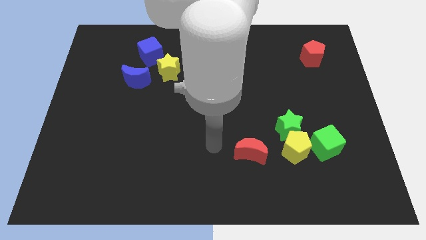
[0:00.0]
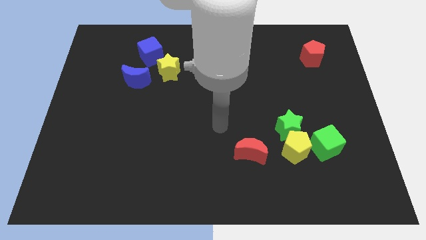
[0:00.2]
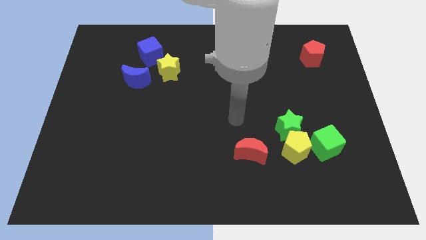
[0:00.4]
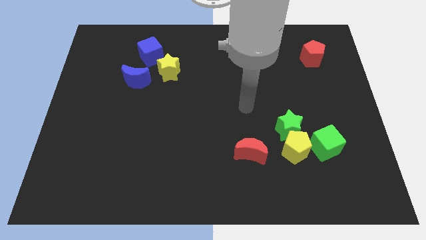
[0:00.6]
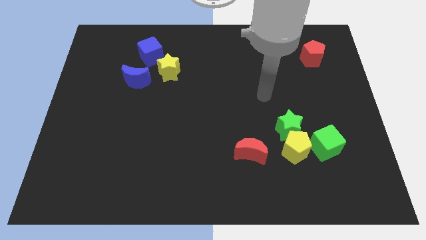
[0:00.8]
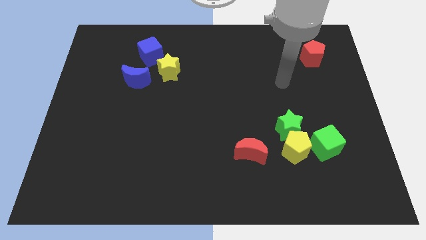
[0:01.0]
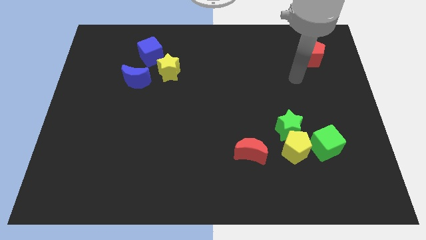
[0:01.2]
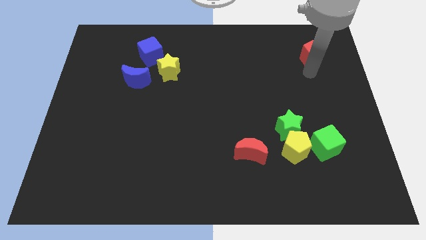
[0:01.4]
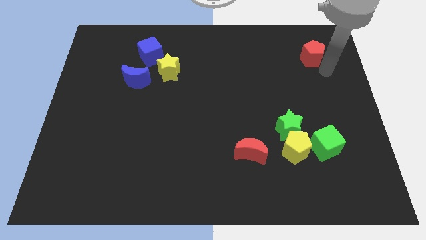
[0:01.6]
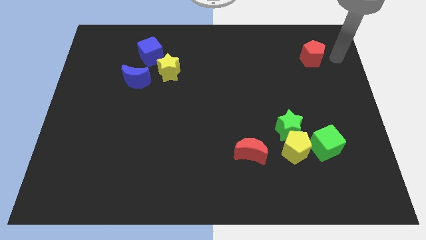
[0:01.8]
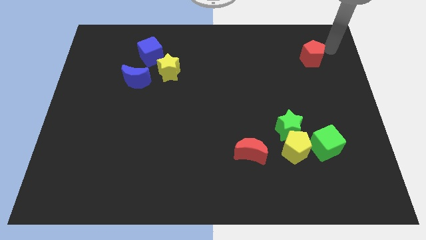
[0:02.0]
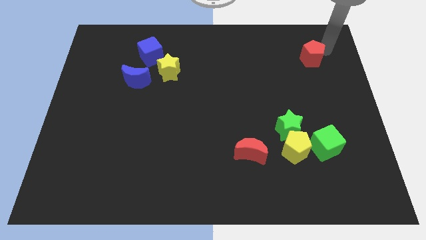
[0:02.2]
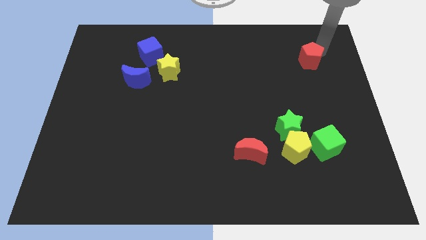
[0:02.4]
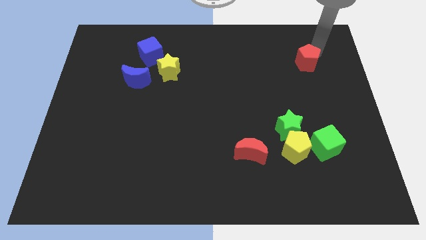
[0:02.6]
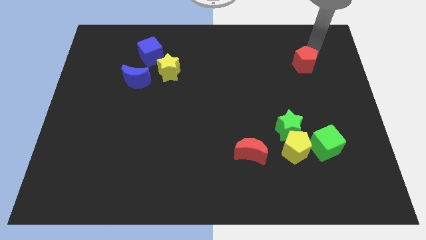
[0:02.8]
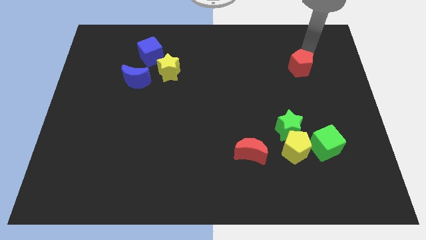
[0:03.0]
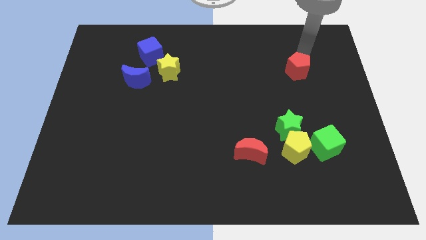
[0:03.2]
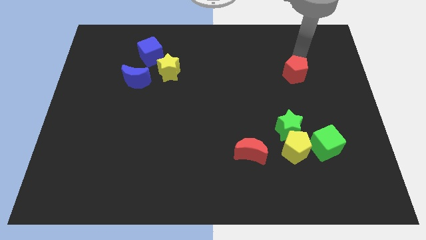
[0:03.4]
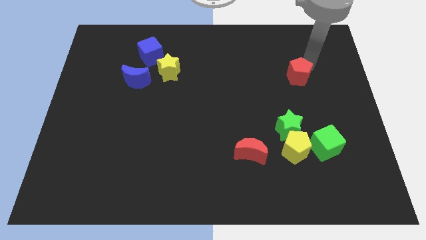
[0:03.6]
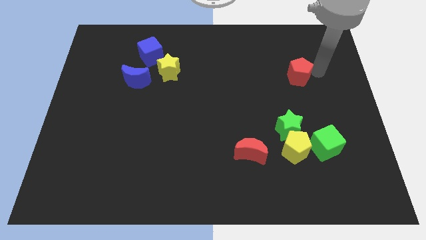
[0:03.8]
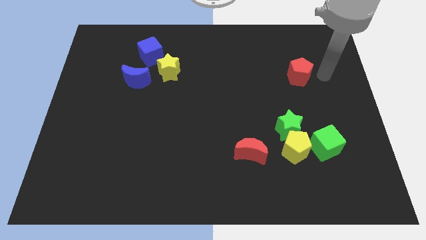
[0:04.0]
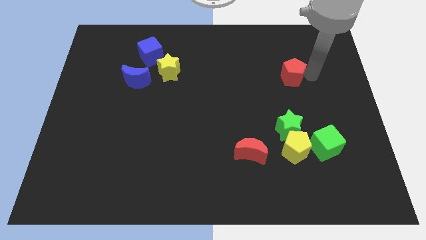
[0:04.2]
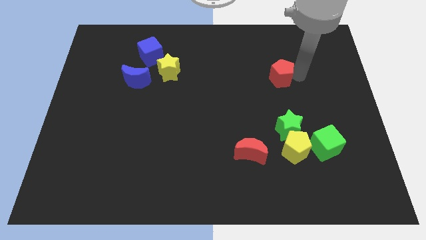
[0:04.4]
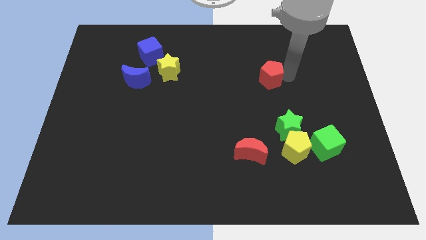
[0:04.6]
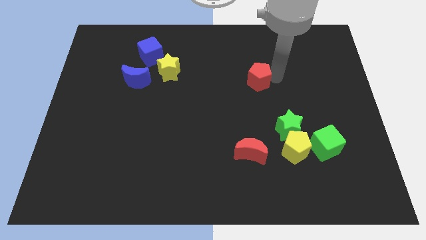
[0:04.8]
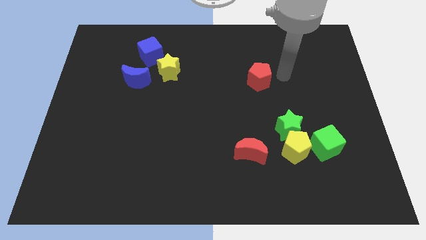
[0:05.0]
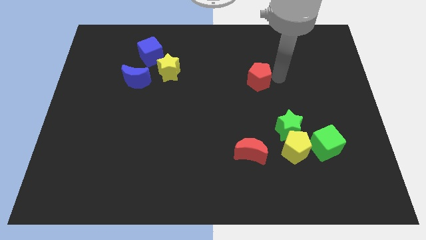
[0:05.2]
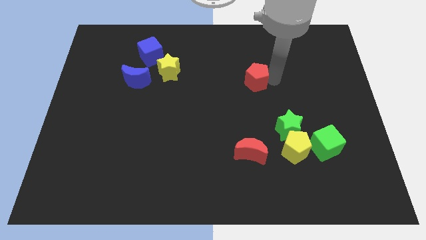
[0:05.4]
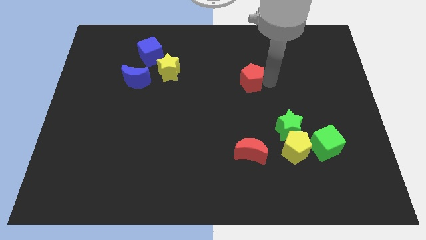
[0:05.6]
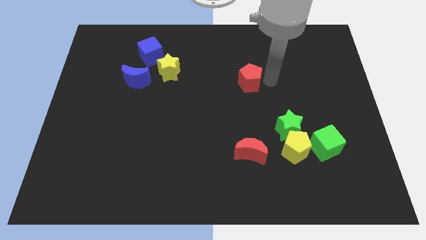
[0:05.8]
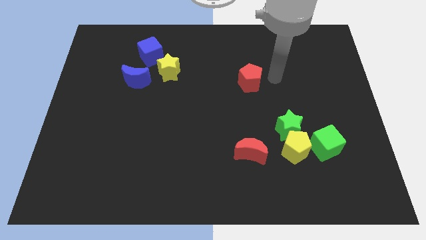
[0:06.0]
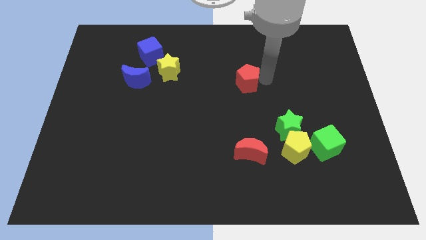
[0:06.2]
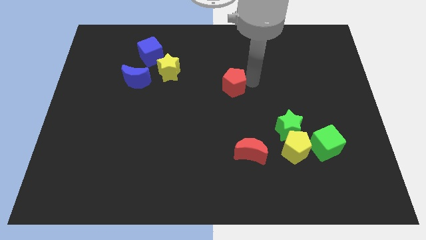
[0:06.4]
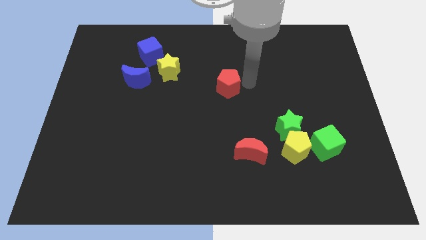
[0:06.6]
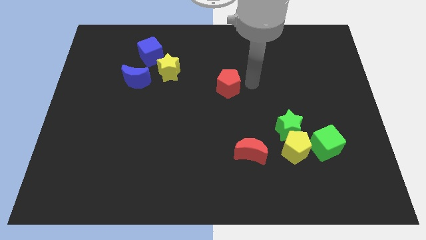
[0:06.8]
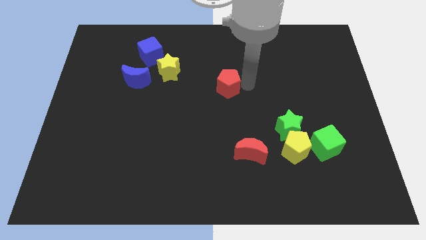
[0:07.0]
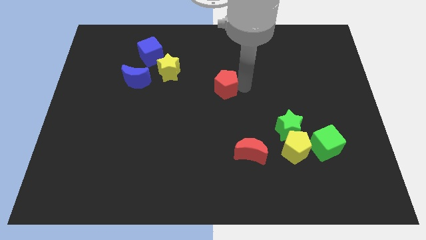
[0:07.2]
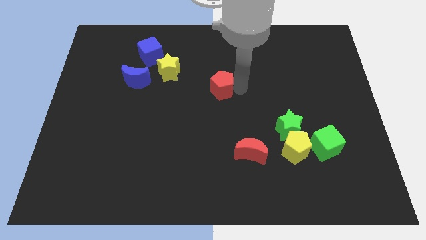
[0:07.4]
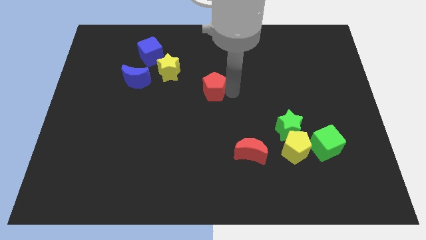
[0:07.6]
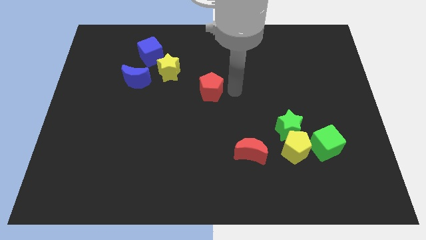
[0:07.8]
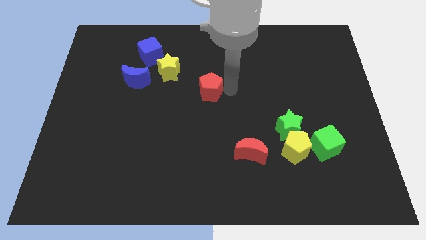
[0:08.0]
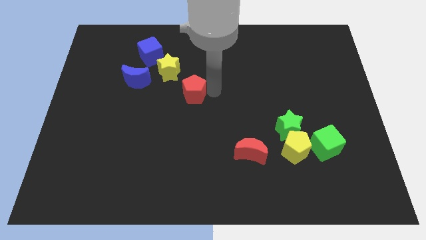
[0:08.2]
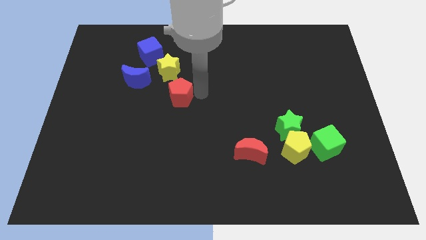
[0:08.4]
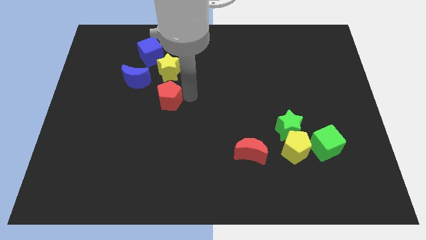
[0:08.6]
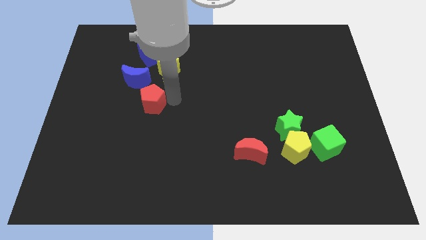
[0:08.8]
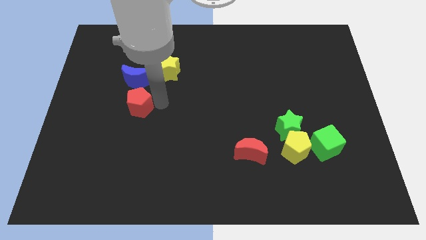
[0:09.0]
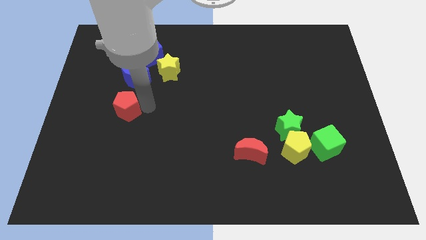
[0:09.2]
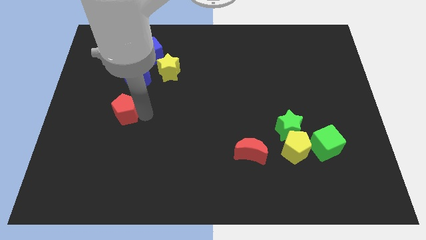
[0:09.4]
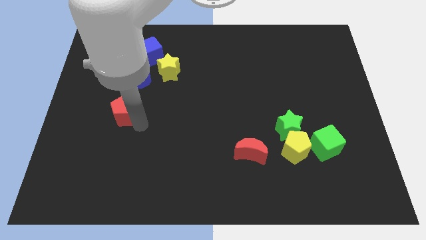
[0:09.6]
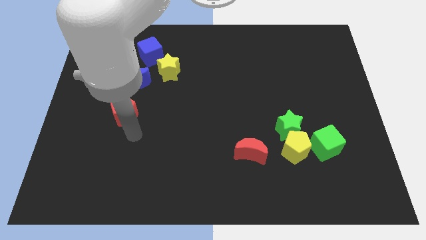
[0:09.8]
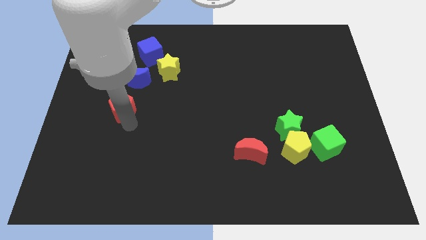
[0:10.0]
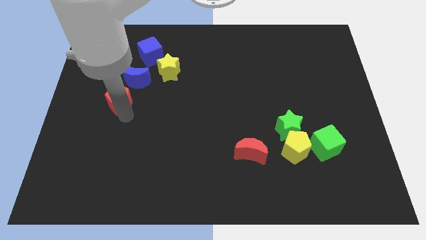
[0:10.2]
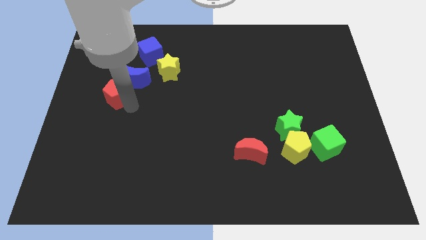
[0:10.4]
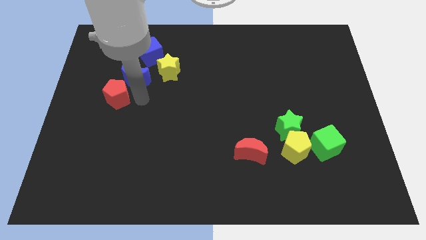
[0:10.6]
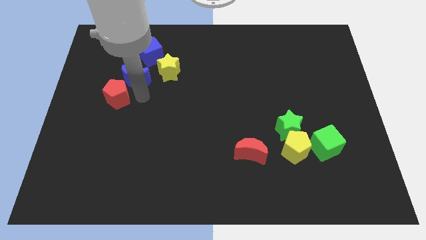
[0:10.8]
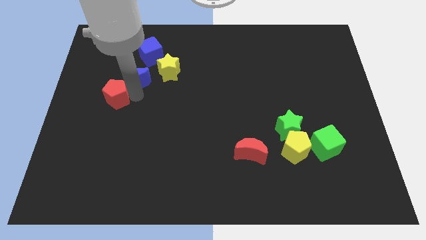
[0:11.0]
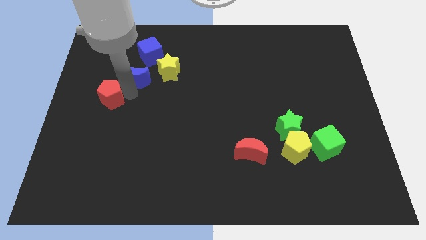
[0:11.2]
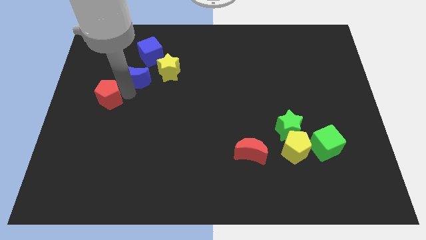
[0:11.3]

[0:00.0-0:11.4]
push the red pentagon to the left side of the board

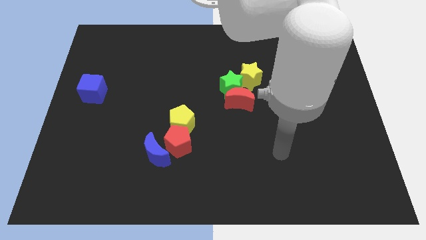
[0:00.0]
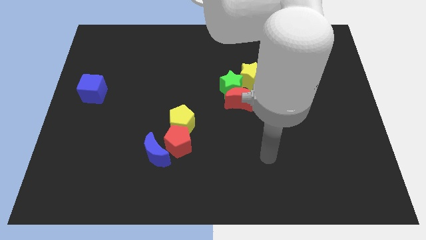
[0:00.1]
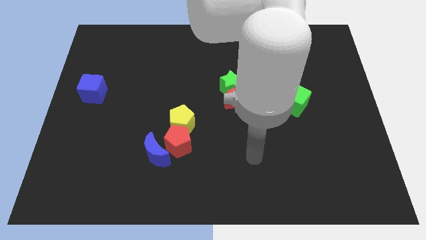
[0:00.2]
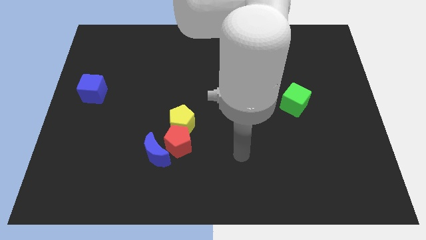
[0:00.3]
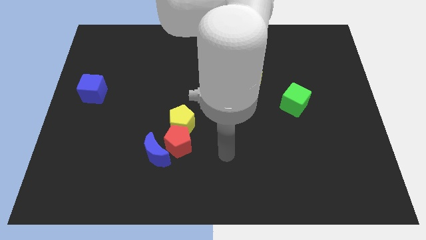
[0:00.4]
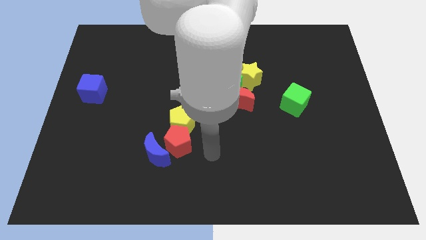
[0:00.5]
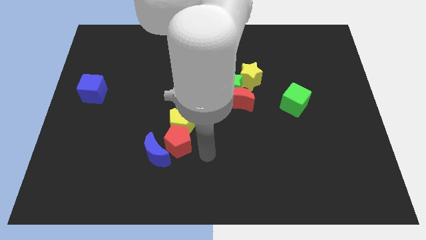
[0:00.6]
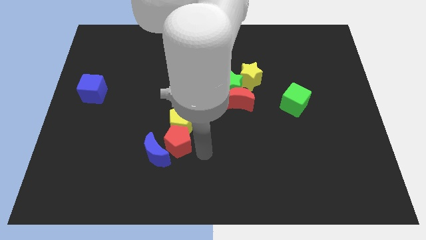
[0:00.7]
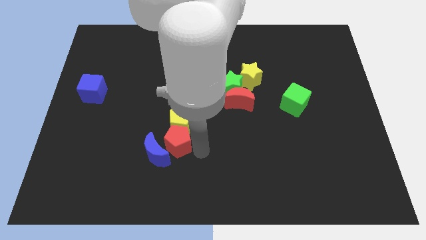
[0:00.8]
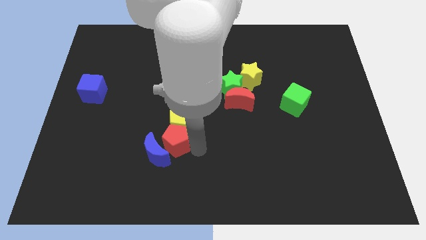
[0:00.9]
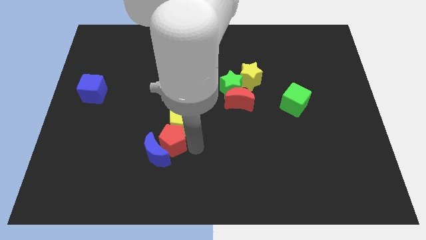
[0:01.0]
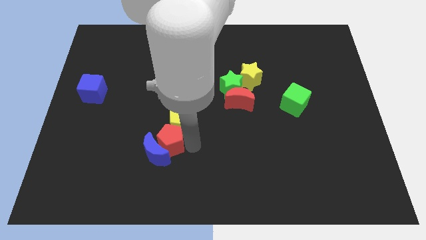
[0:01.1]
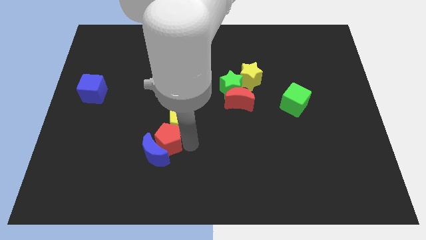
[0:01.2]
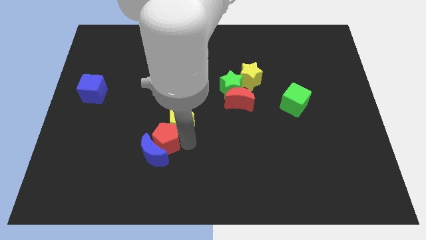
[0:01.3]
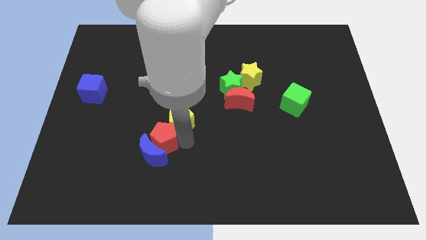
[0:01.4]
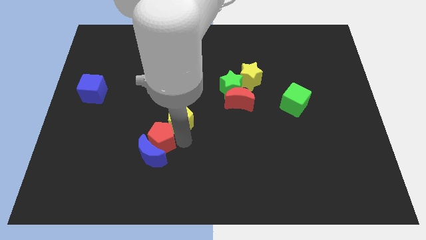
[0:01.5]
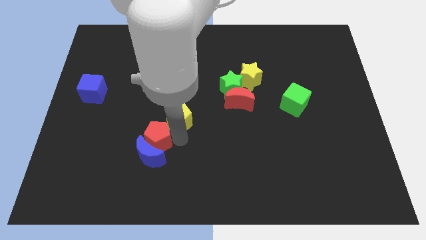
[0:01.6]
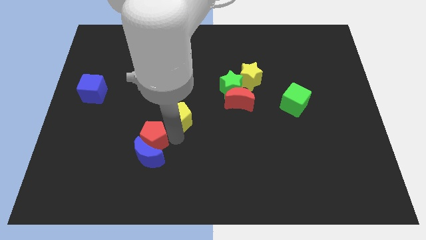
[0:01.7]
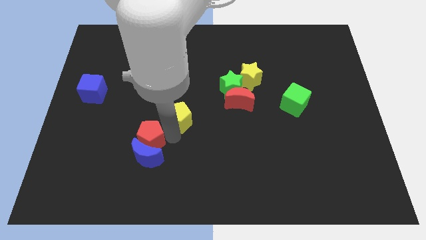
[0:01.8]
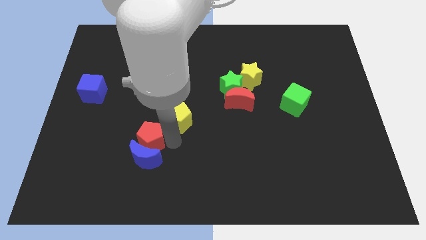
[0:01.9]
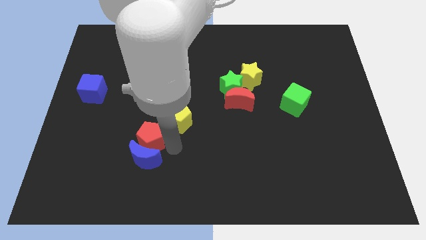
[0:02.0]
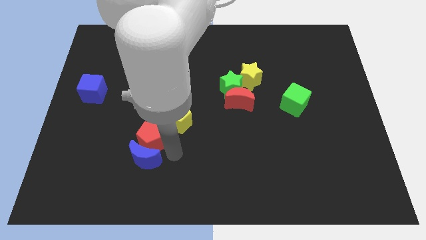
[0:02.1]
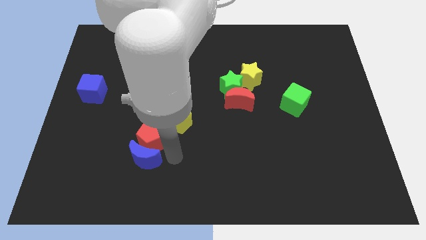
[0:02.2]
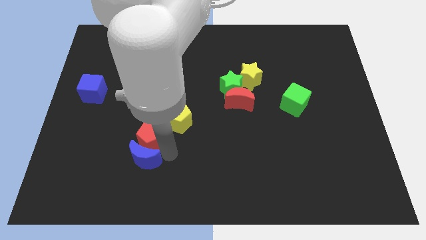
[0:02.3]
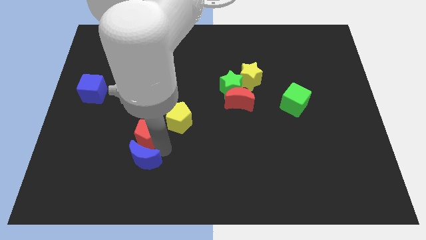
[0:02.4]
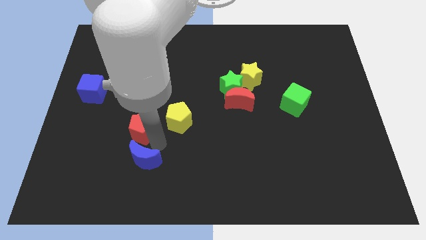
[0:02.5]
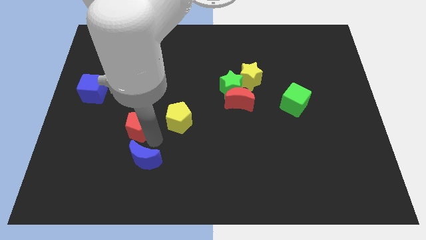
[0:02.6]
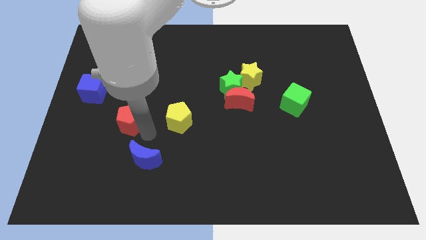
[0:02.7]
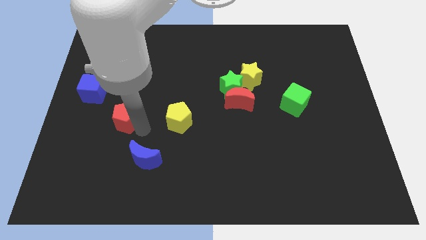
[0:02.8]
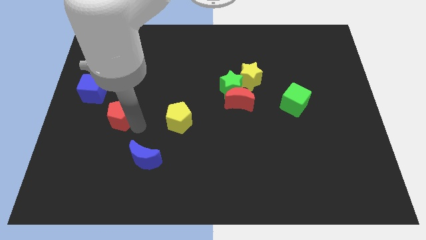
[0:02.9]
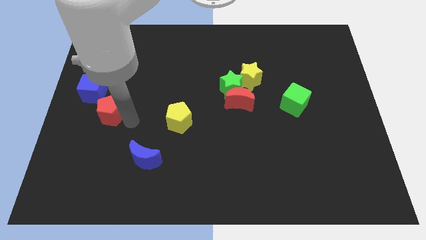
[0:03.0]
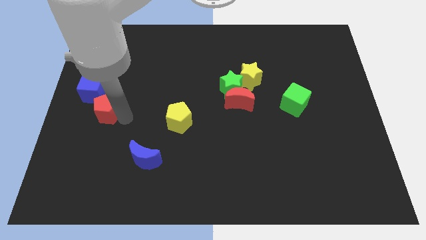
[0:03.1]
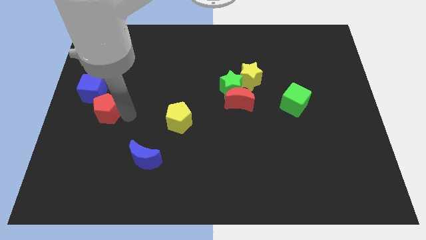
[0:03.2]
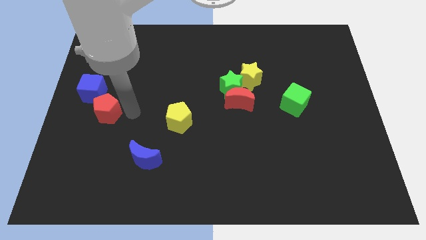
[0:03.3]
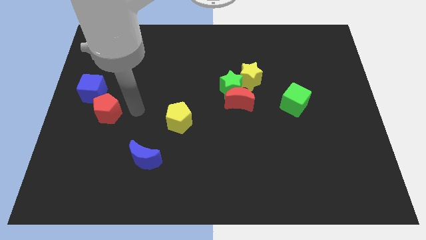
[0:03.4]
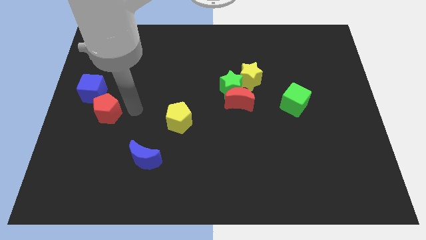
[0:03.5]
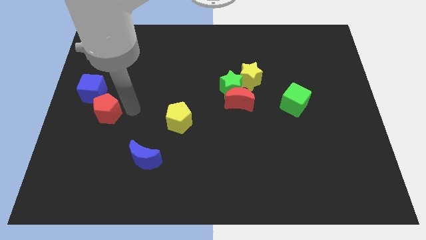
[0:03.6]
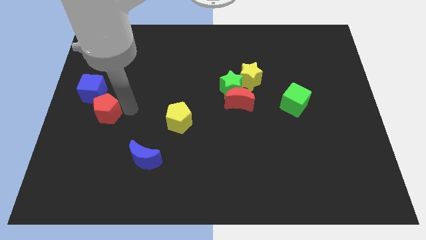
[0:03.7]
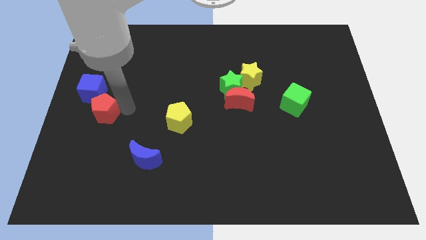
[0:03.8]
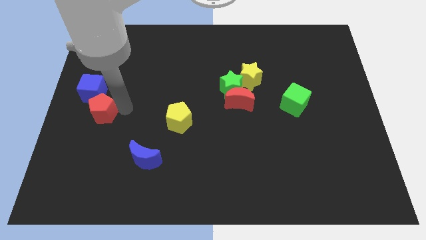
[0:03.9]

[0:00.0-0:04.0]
push the red pentagon to the left side
